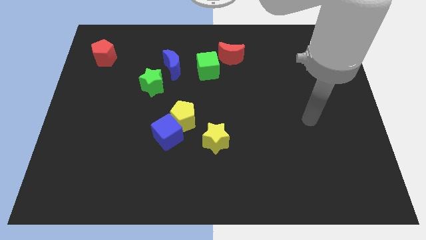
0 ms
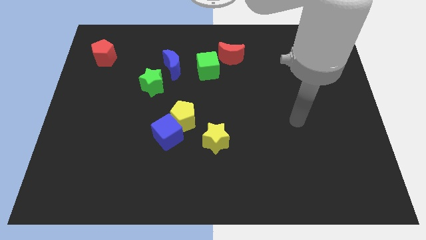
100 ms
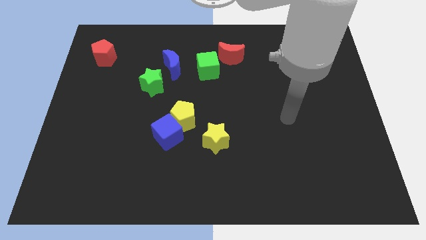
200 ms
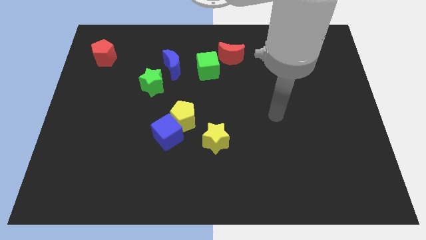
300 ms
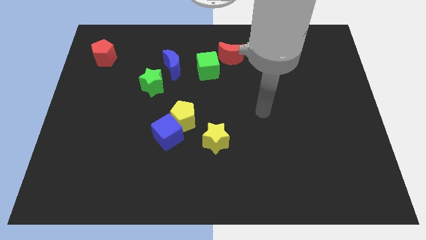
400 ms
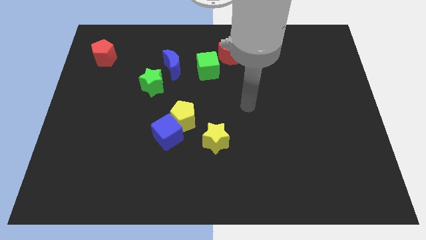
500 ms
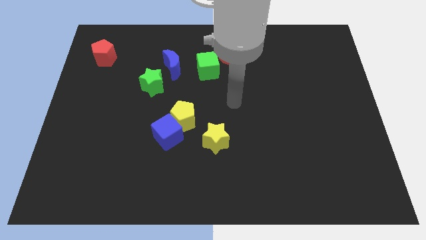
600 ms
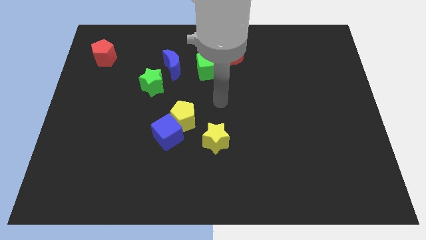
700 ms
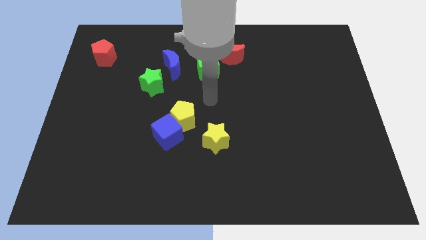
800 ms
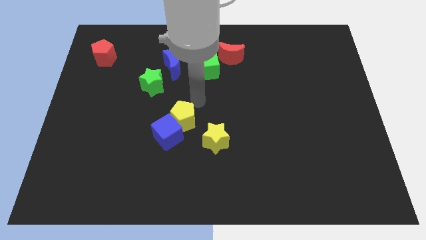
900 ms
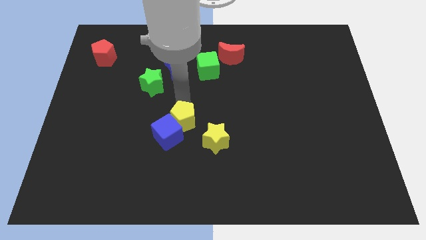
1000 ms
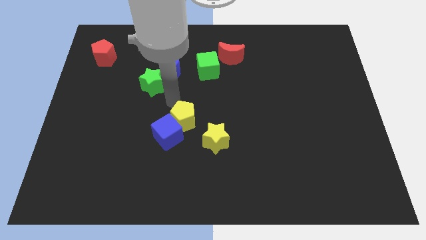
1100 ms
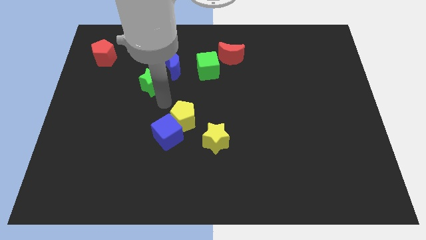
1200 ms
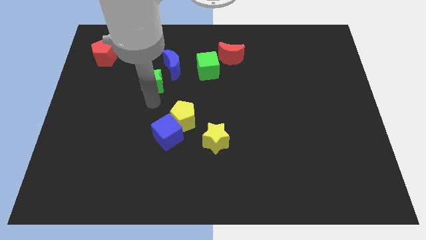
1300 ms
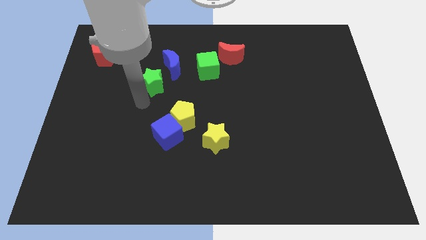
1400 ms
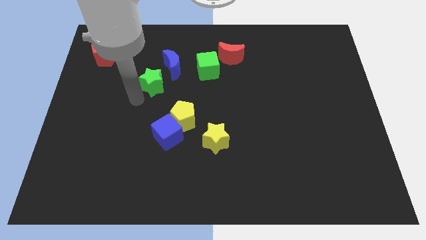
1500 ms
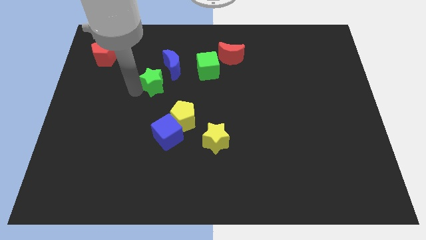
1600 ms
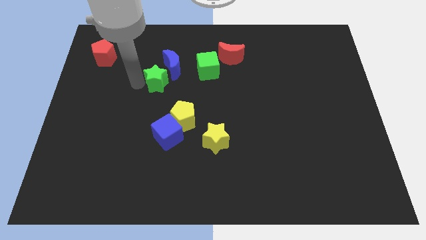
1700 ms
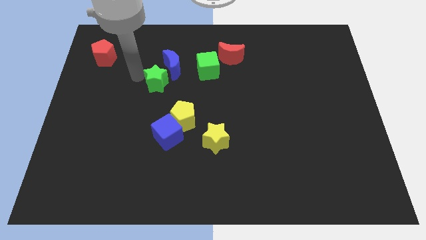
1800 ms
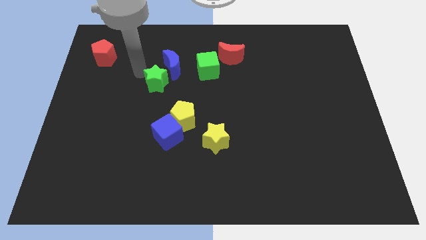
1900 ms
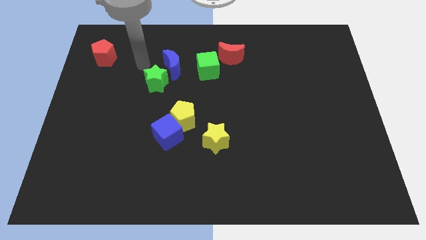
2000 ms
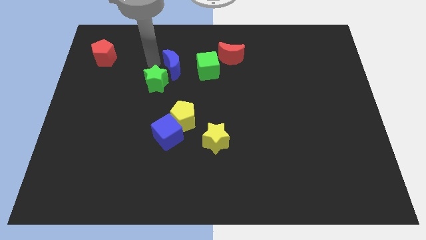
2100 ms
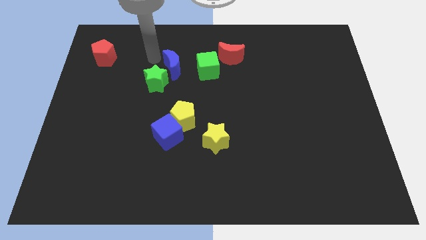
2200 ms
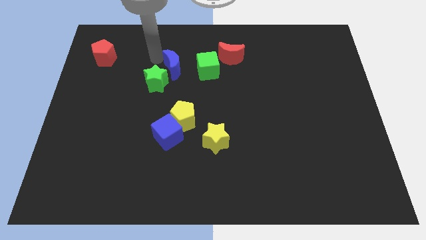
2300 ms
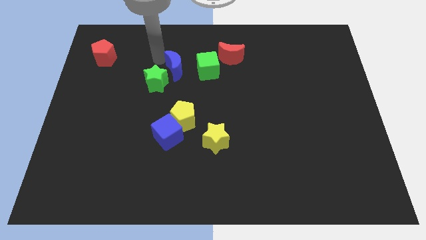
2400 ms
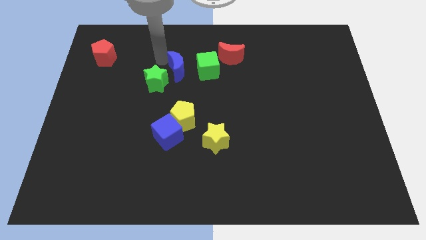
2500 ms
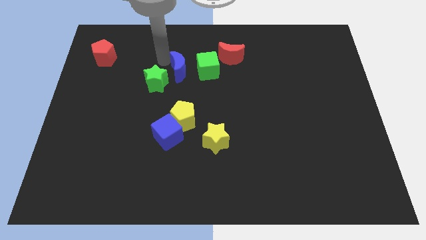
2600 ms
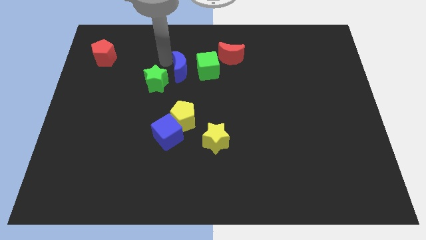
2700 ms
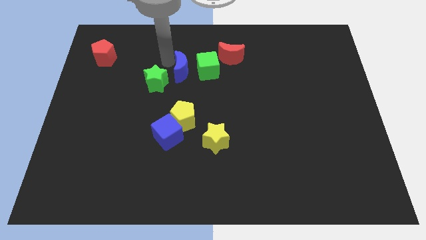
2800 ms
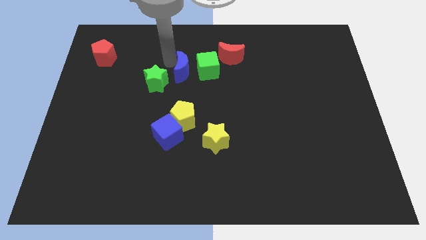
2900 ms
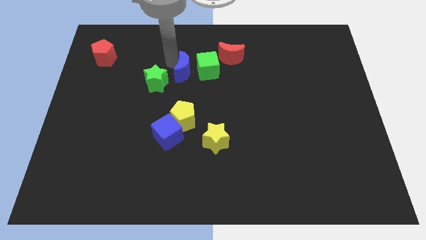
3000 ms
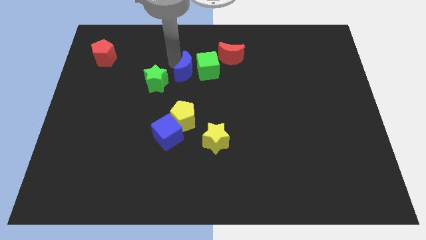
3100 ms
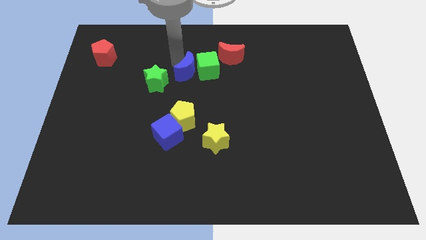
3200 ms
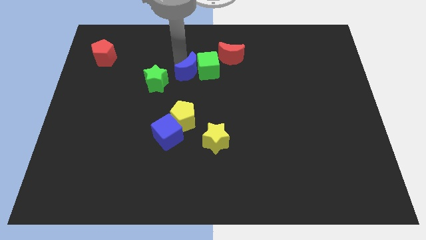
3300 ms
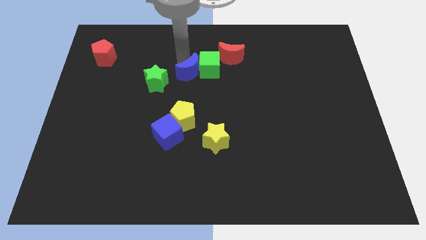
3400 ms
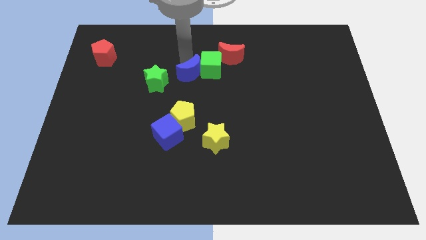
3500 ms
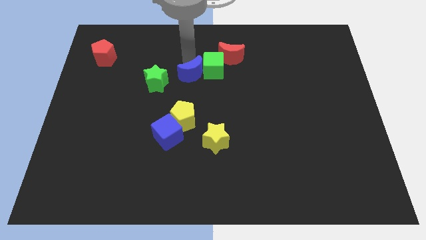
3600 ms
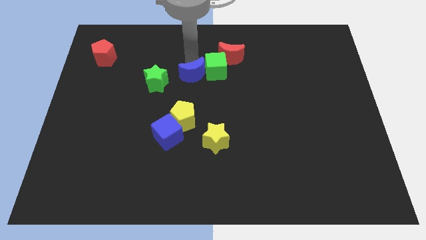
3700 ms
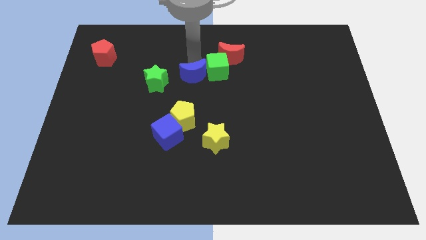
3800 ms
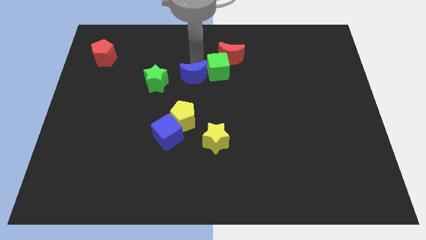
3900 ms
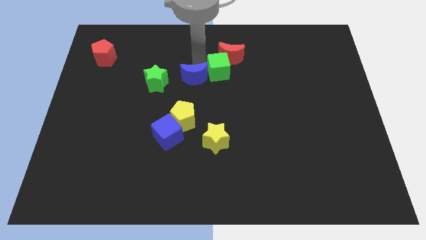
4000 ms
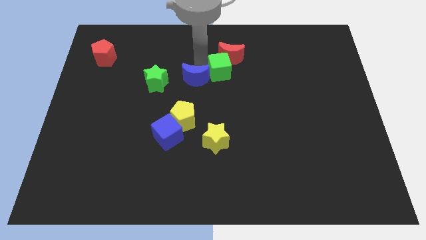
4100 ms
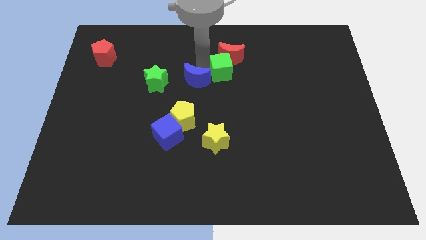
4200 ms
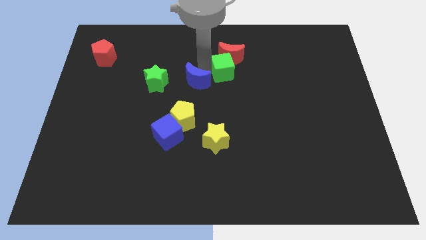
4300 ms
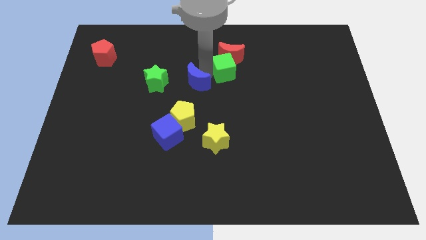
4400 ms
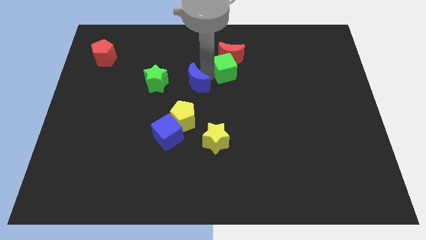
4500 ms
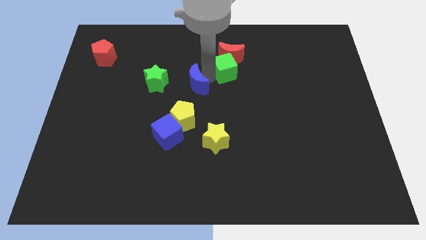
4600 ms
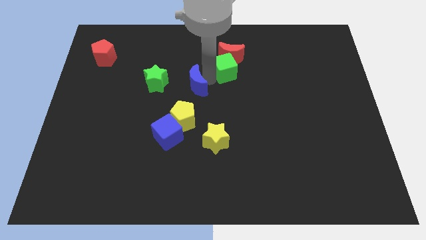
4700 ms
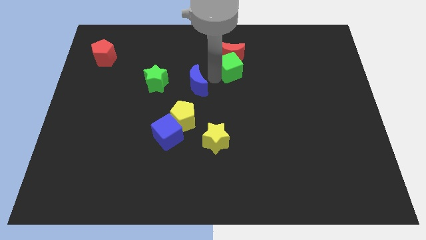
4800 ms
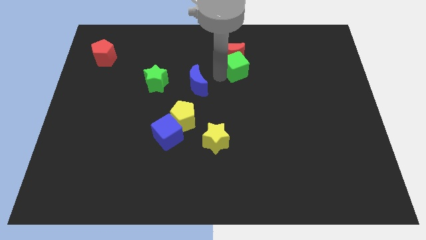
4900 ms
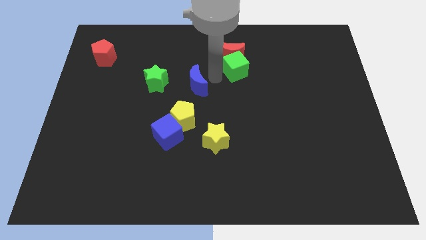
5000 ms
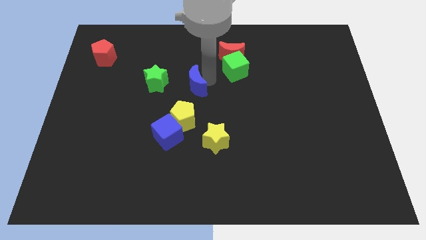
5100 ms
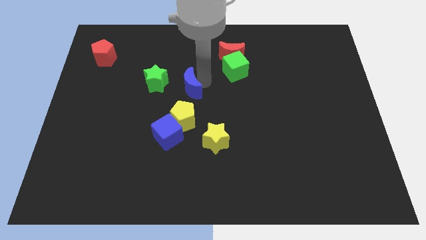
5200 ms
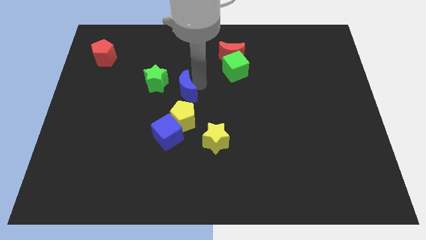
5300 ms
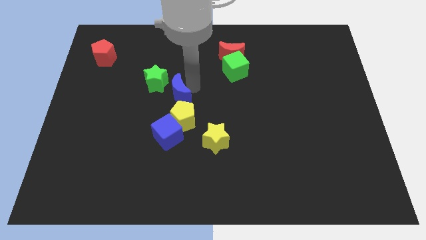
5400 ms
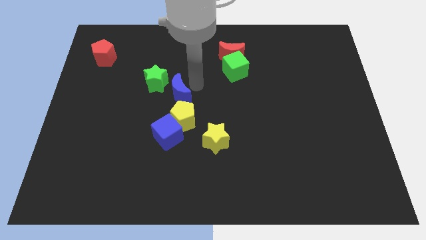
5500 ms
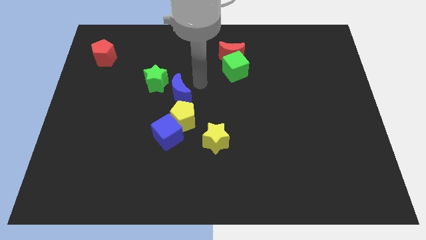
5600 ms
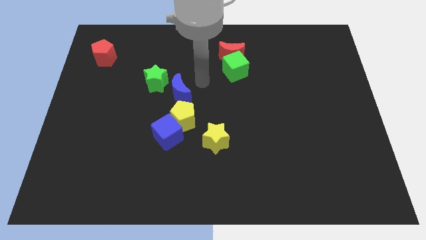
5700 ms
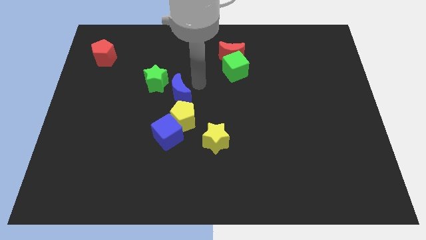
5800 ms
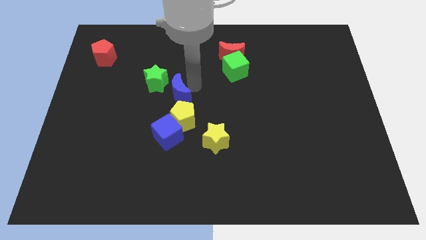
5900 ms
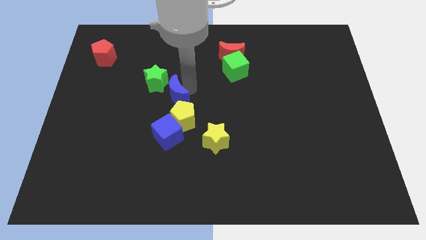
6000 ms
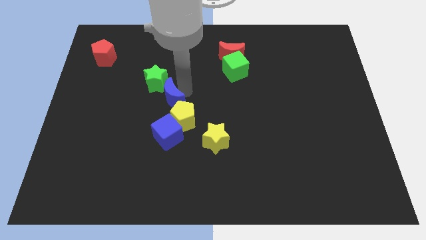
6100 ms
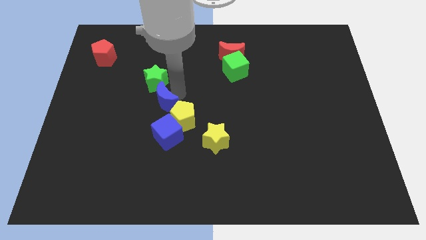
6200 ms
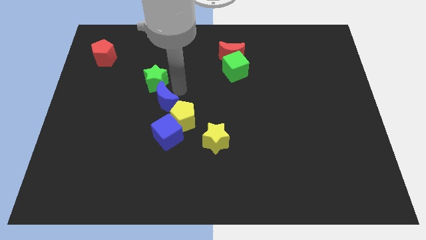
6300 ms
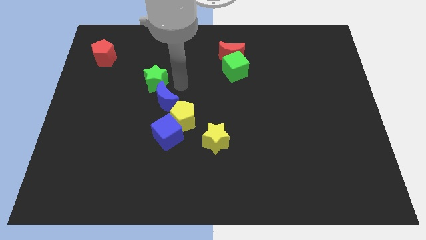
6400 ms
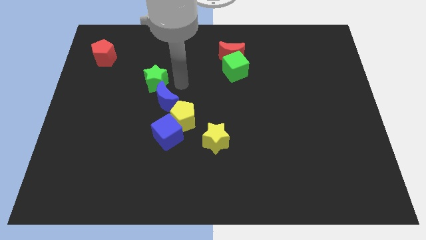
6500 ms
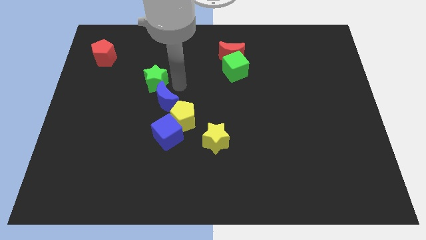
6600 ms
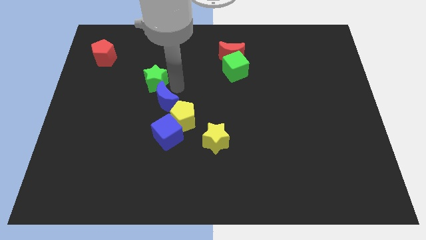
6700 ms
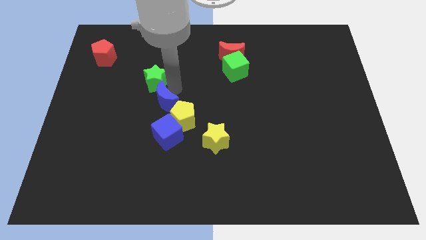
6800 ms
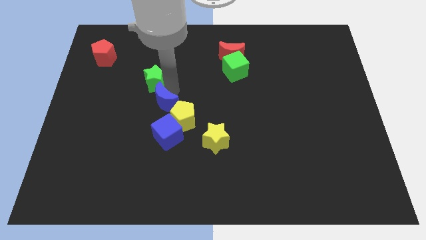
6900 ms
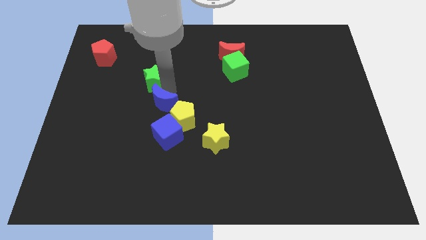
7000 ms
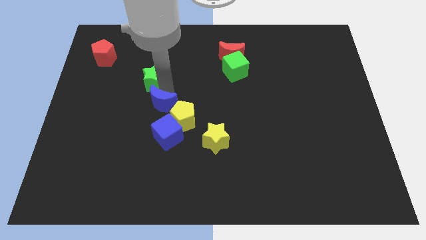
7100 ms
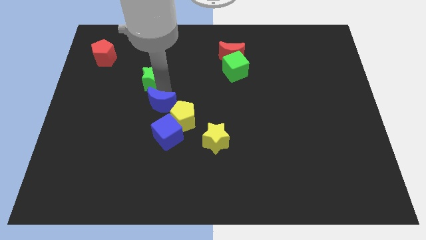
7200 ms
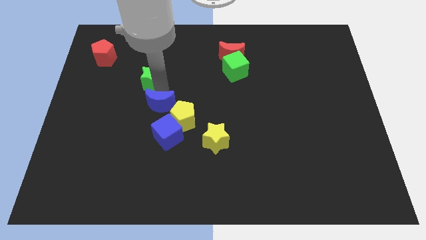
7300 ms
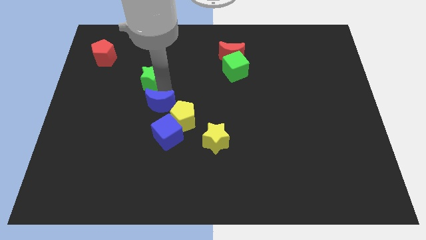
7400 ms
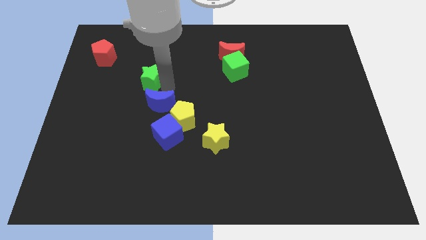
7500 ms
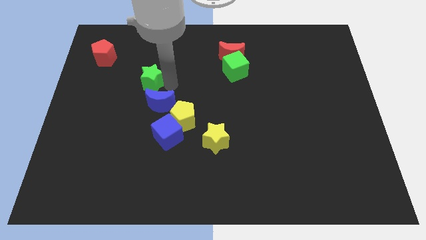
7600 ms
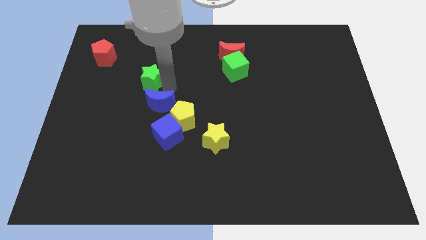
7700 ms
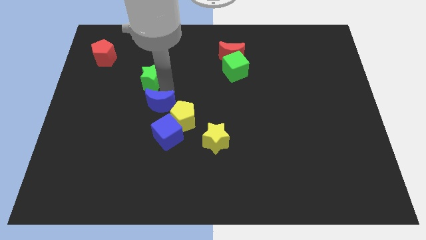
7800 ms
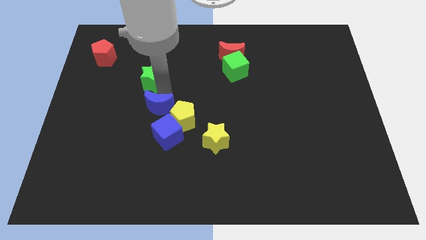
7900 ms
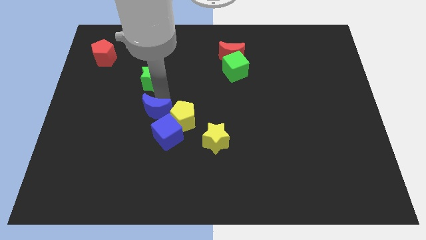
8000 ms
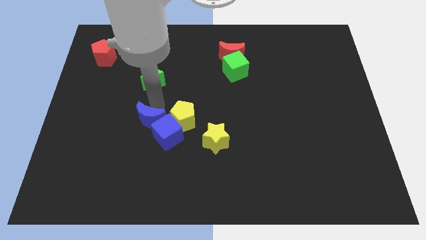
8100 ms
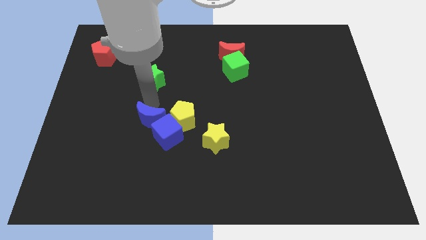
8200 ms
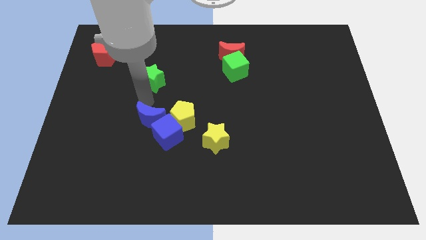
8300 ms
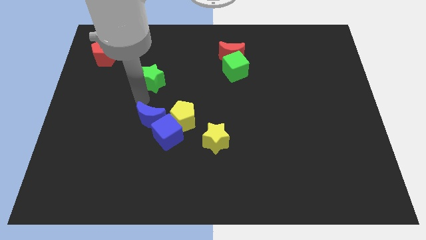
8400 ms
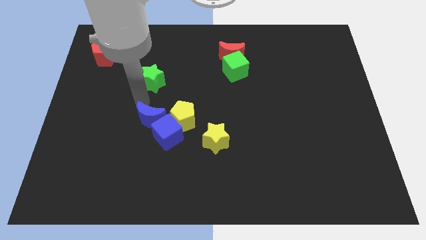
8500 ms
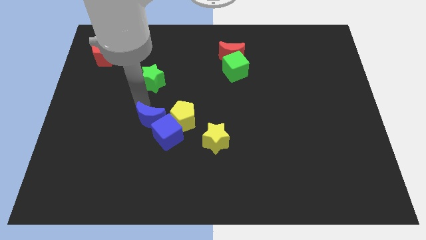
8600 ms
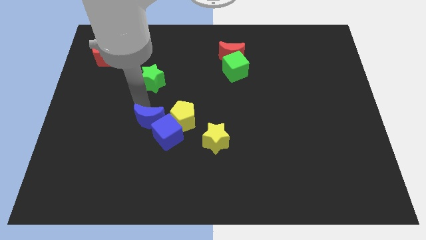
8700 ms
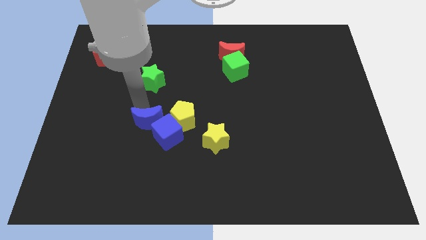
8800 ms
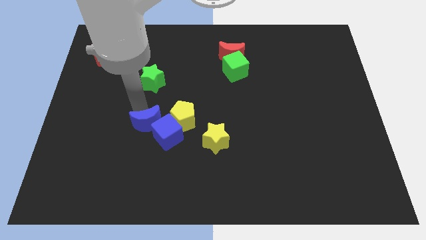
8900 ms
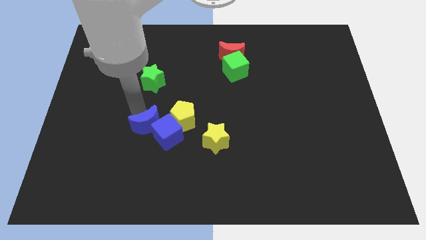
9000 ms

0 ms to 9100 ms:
push the blue moon diagonally down and to the left of the yellow pentagon
